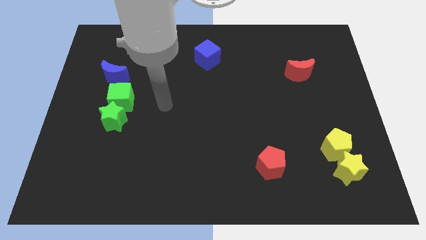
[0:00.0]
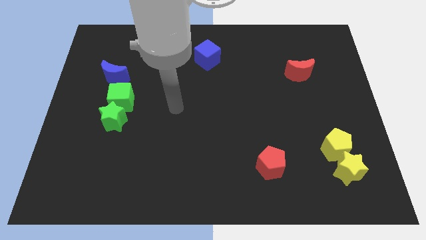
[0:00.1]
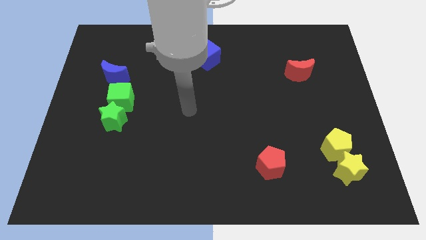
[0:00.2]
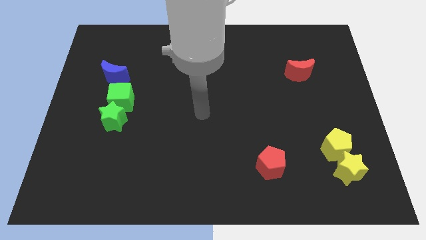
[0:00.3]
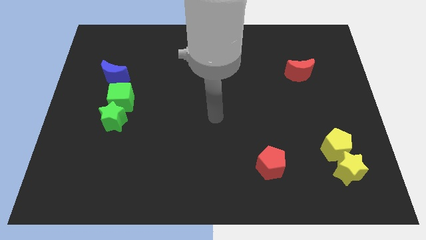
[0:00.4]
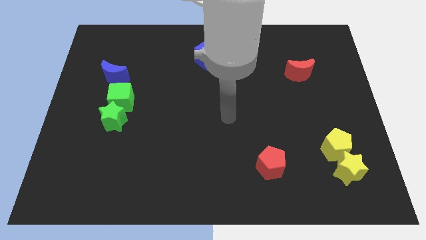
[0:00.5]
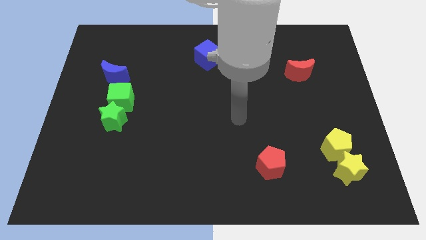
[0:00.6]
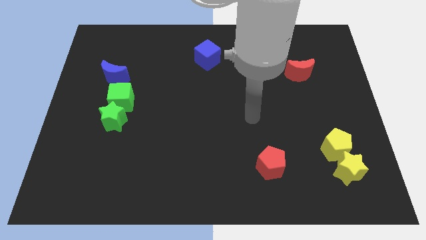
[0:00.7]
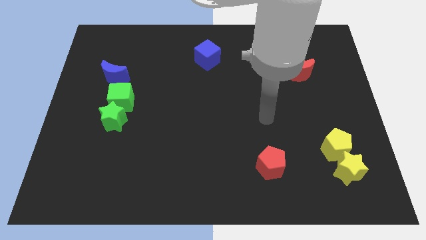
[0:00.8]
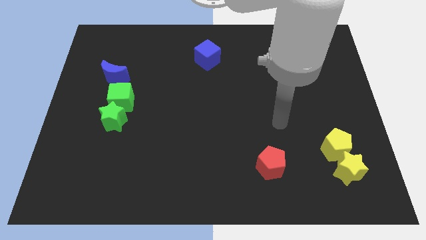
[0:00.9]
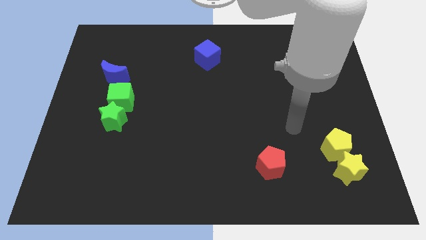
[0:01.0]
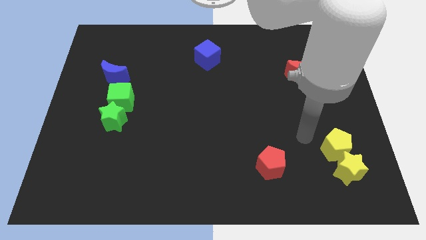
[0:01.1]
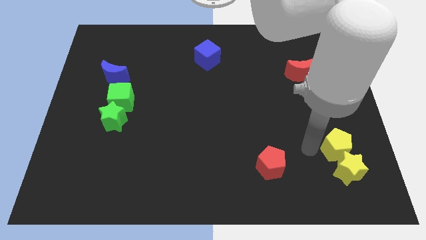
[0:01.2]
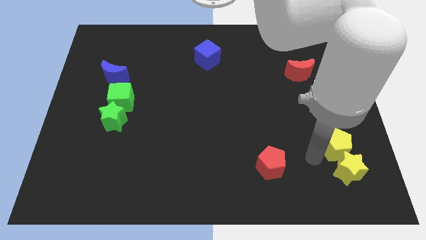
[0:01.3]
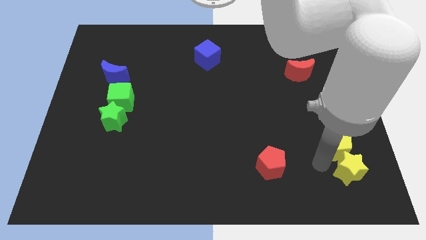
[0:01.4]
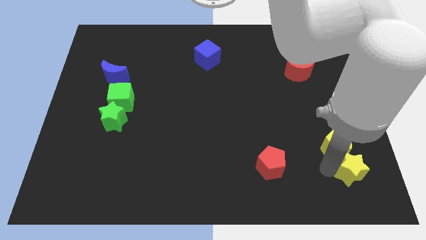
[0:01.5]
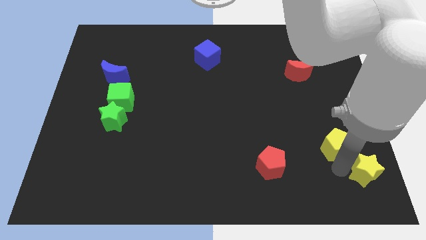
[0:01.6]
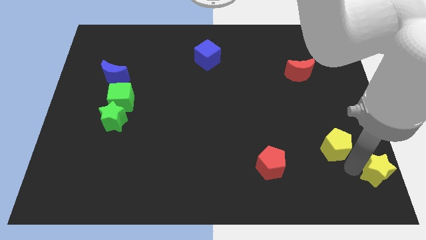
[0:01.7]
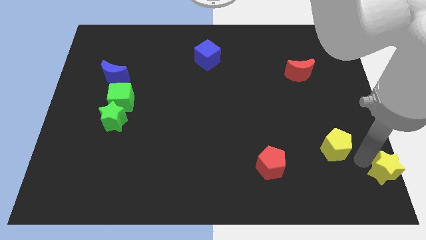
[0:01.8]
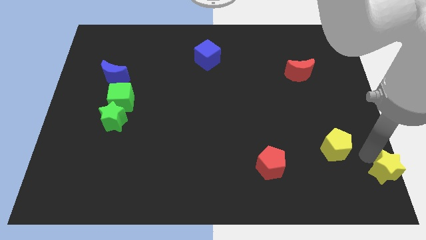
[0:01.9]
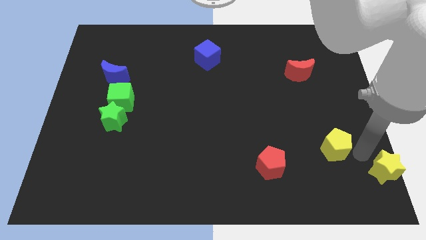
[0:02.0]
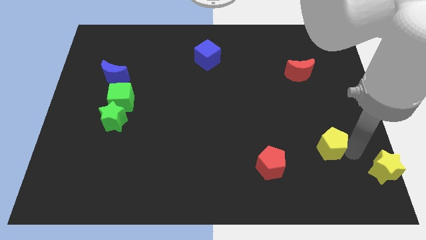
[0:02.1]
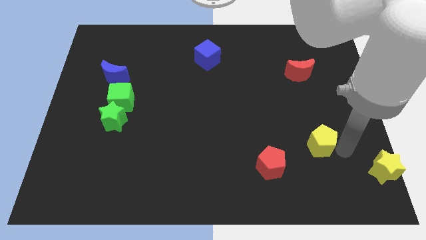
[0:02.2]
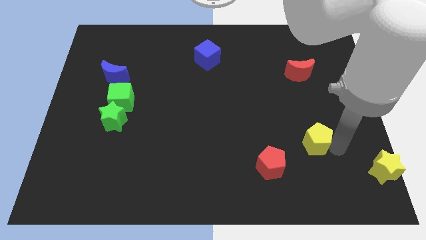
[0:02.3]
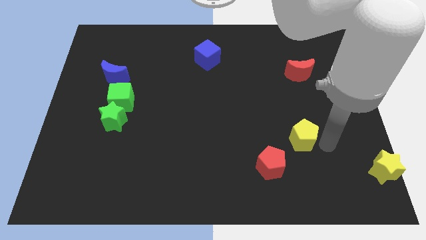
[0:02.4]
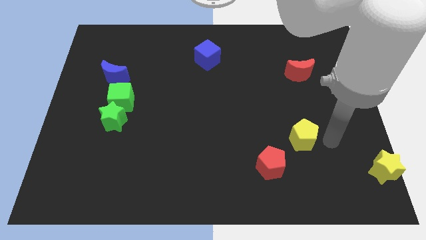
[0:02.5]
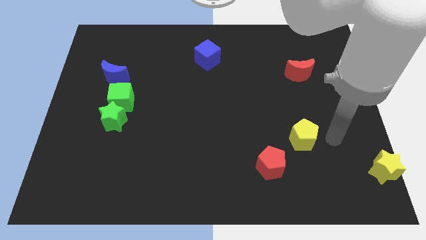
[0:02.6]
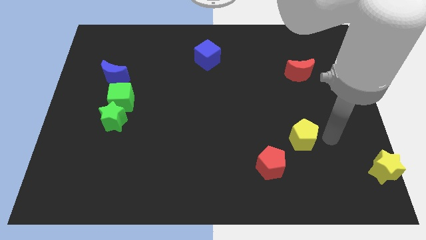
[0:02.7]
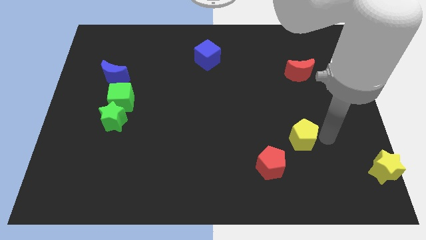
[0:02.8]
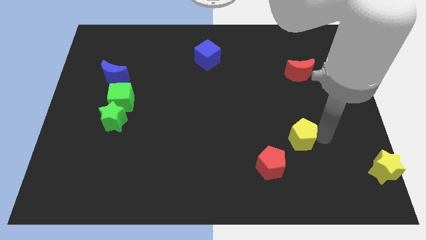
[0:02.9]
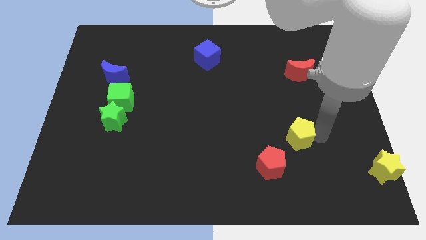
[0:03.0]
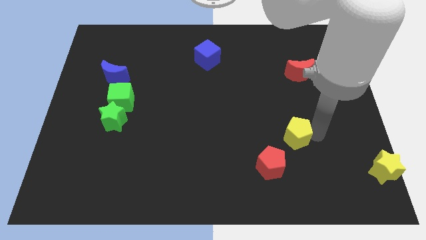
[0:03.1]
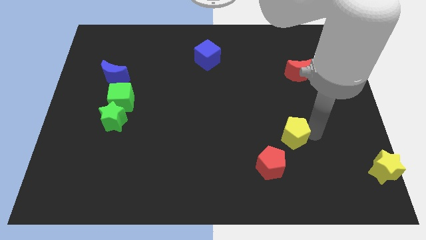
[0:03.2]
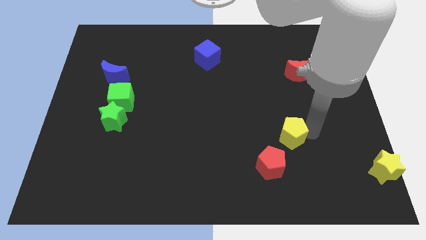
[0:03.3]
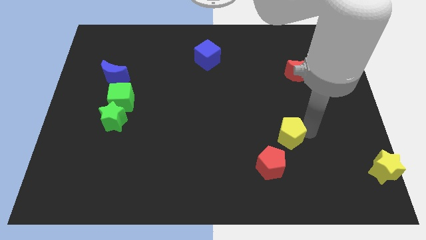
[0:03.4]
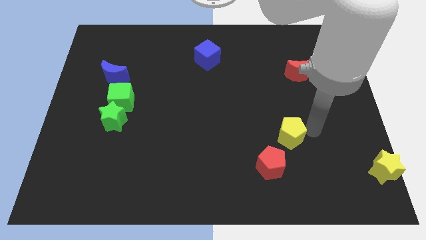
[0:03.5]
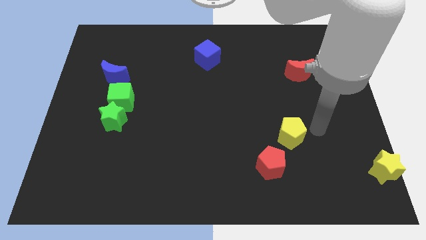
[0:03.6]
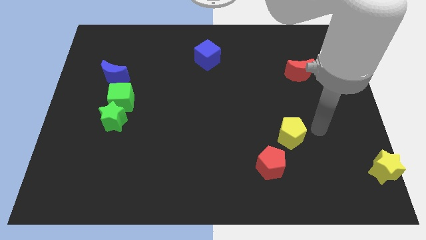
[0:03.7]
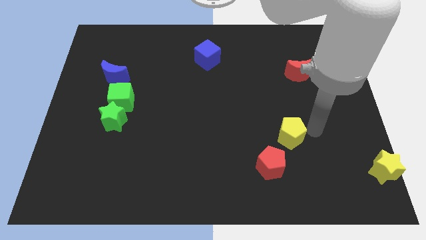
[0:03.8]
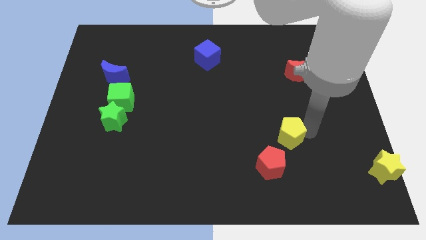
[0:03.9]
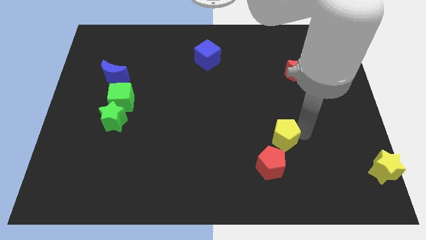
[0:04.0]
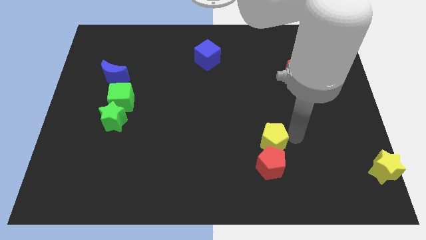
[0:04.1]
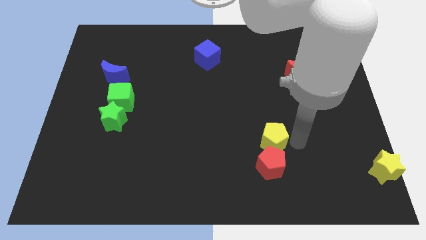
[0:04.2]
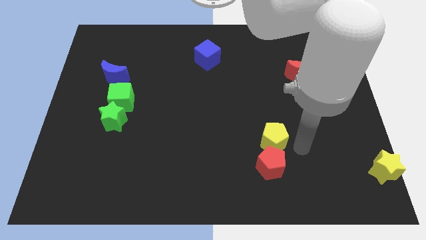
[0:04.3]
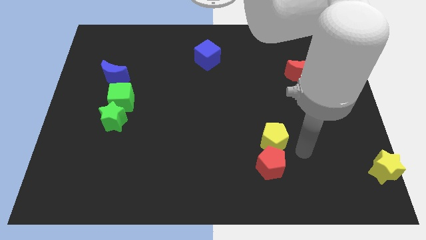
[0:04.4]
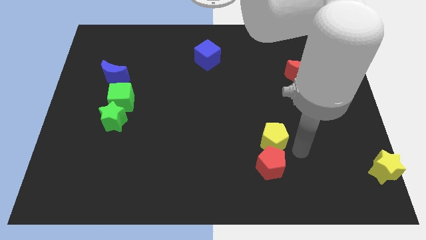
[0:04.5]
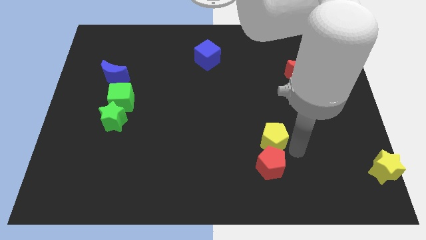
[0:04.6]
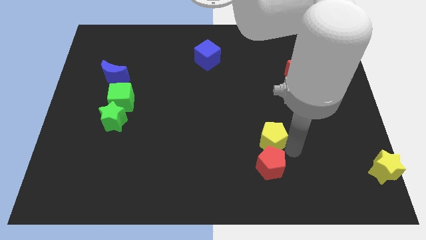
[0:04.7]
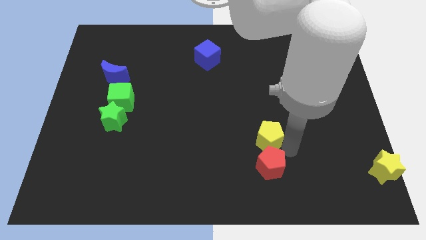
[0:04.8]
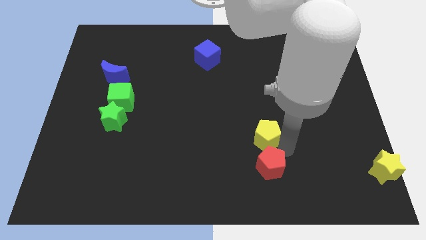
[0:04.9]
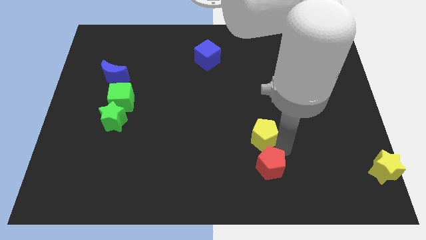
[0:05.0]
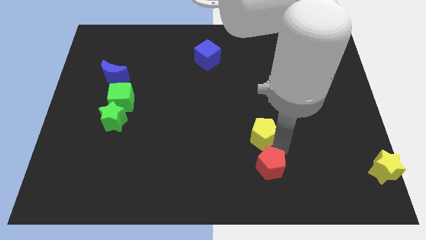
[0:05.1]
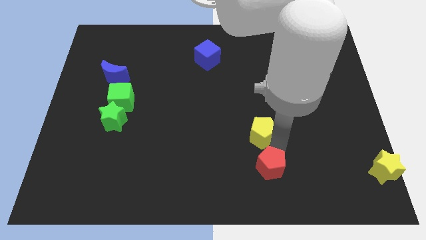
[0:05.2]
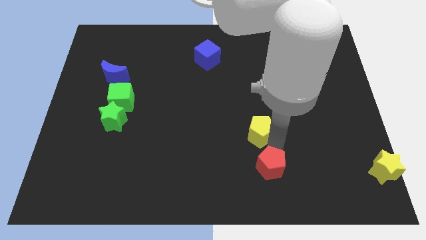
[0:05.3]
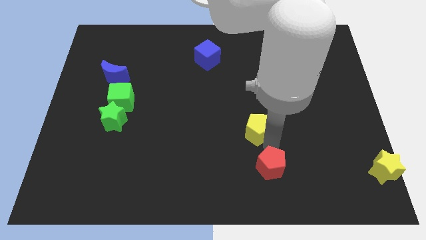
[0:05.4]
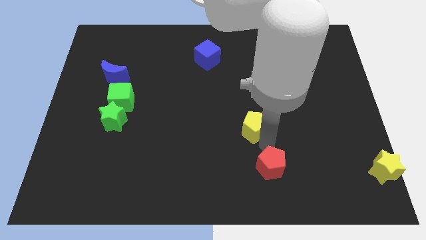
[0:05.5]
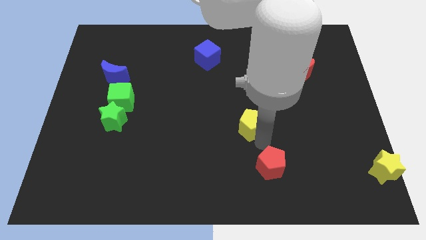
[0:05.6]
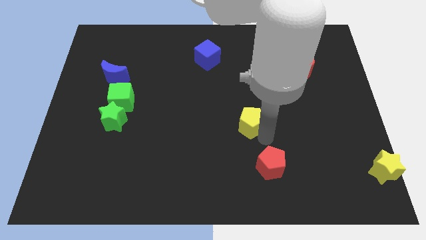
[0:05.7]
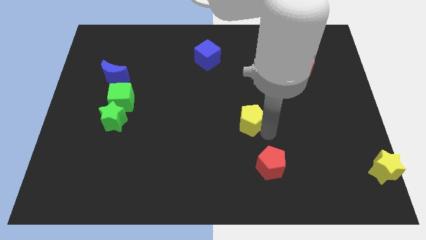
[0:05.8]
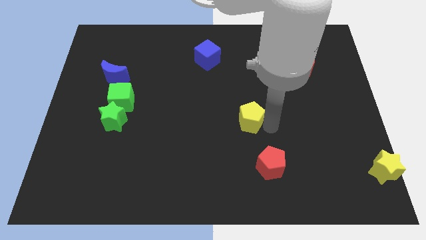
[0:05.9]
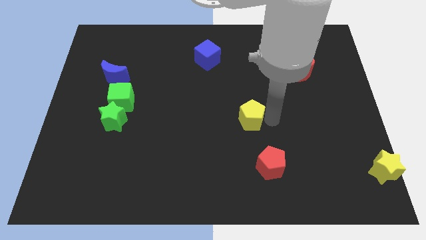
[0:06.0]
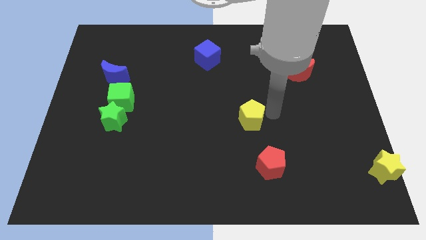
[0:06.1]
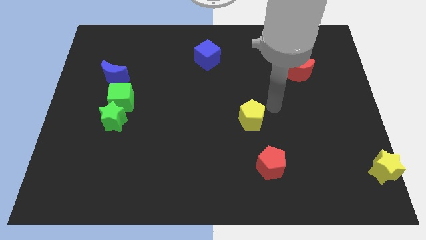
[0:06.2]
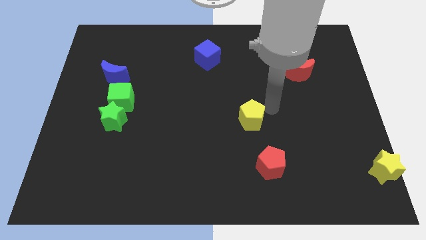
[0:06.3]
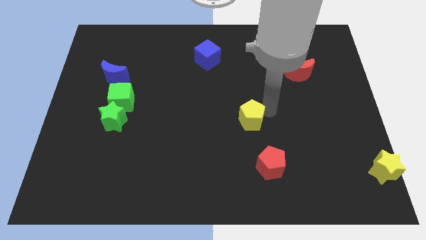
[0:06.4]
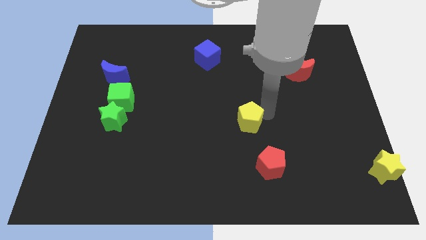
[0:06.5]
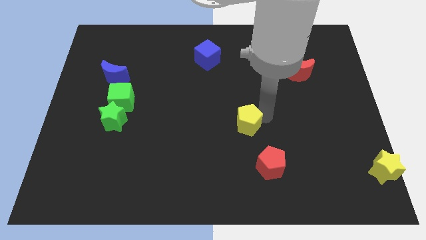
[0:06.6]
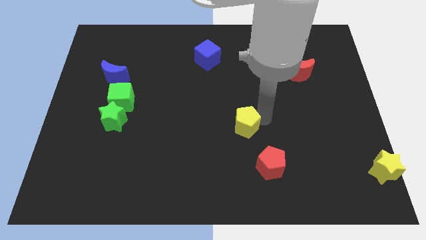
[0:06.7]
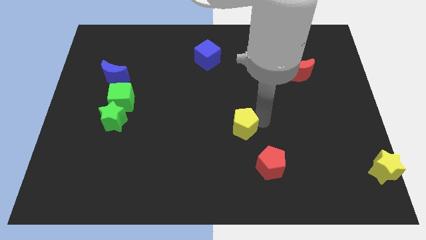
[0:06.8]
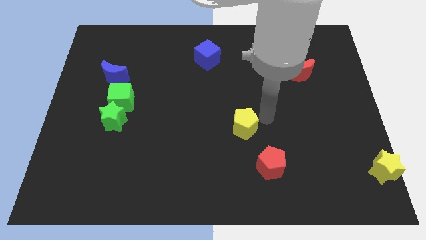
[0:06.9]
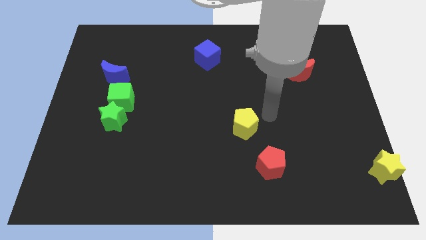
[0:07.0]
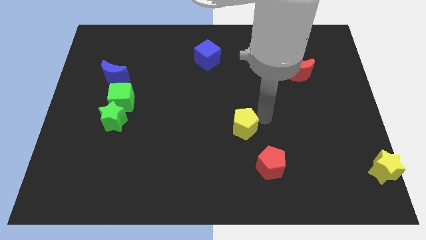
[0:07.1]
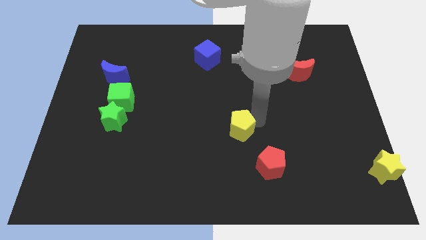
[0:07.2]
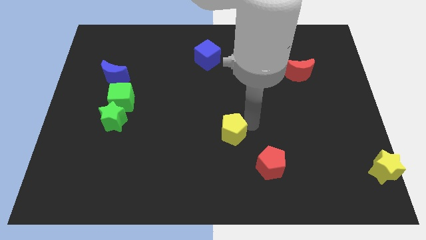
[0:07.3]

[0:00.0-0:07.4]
slide the yellow pentagon to the left

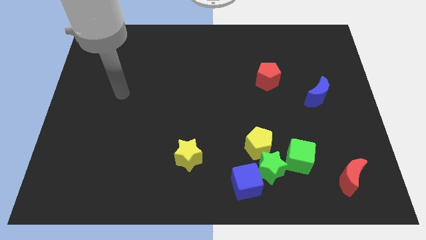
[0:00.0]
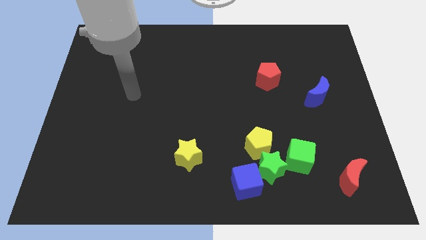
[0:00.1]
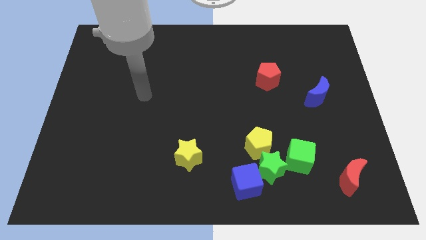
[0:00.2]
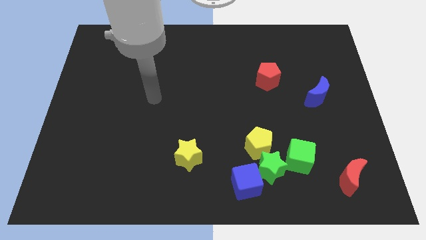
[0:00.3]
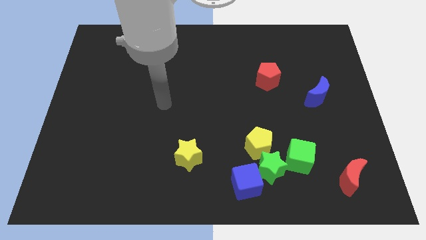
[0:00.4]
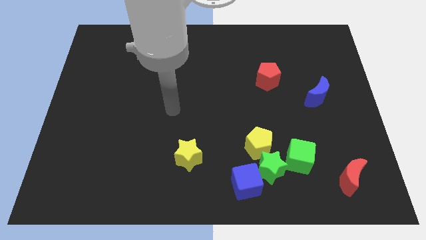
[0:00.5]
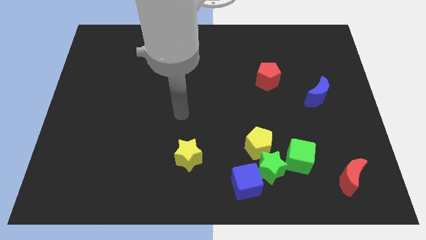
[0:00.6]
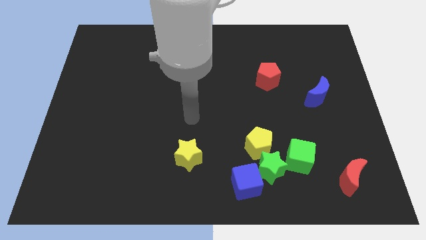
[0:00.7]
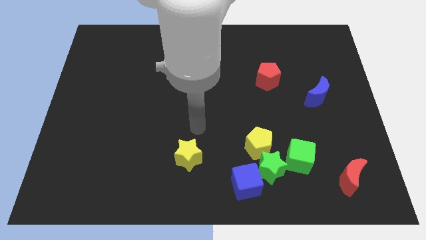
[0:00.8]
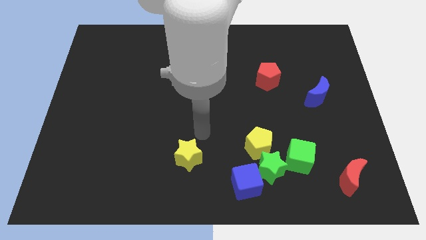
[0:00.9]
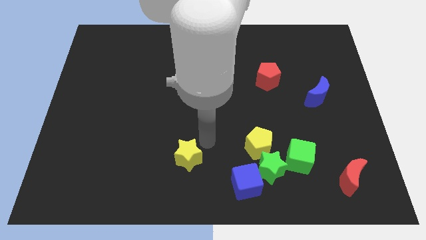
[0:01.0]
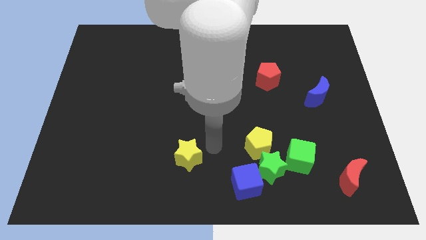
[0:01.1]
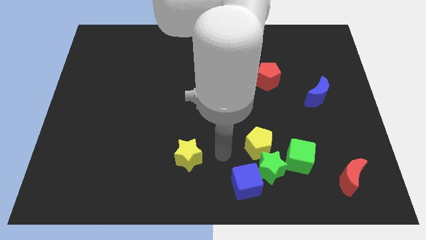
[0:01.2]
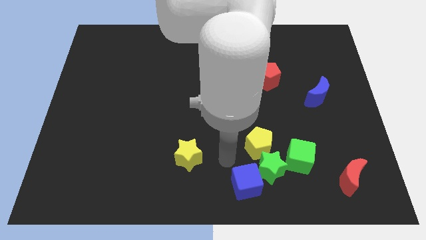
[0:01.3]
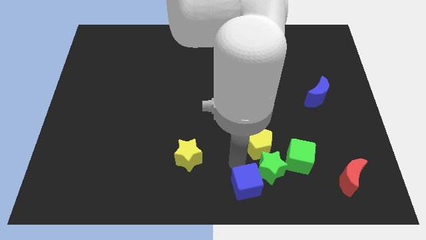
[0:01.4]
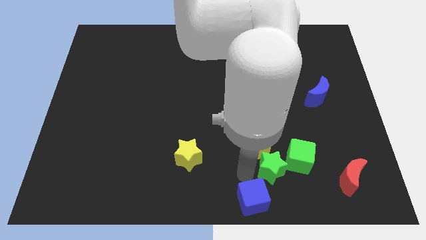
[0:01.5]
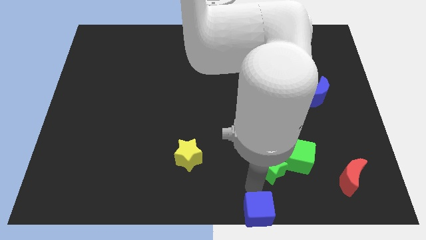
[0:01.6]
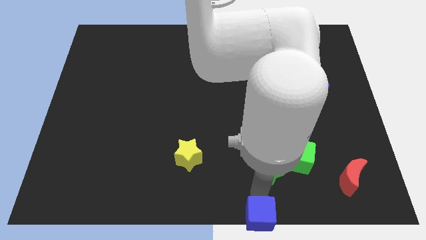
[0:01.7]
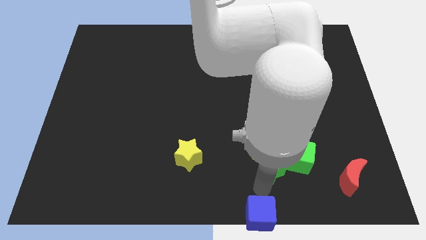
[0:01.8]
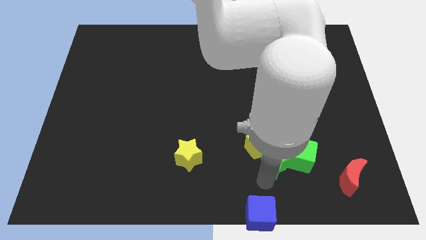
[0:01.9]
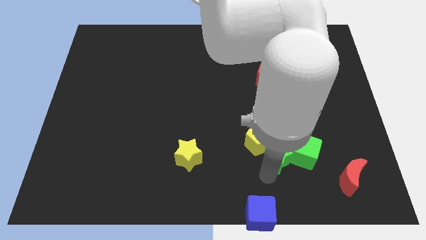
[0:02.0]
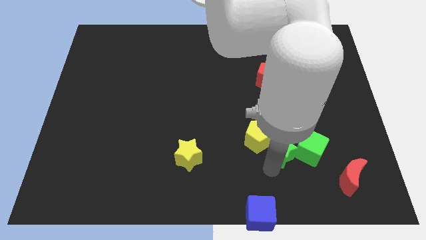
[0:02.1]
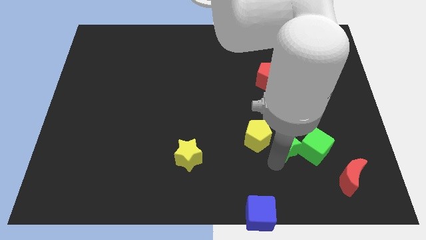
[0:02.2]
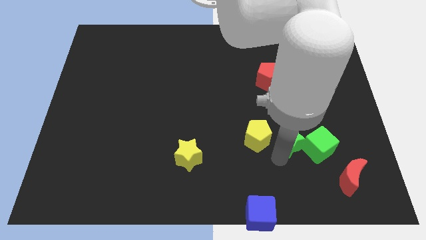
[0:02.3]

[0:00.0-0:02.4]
slide the green star slightly diagonally upwards and to the right
